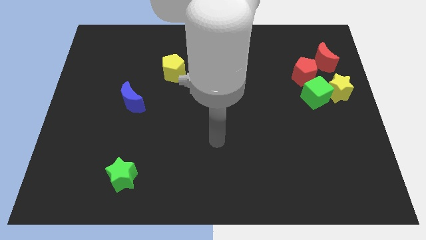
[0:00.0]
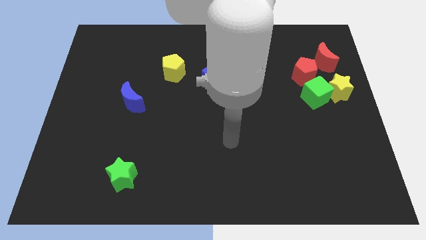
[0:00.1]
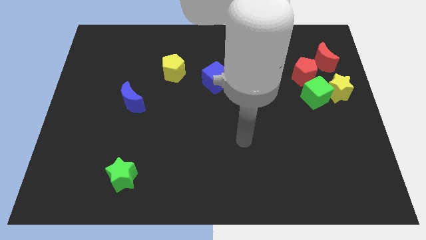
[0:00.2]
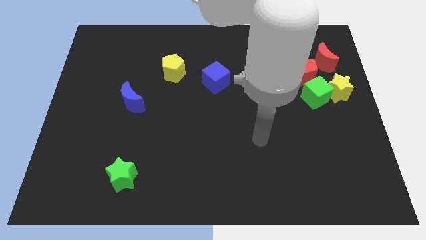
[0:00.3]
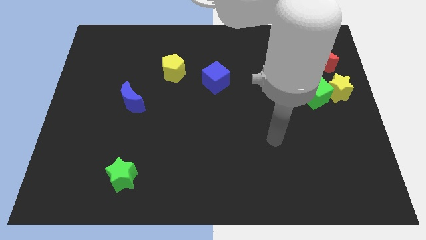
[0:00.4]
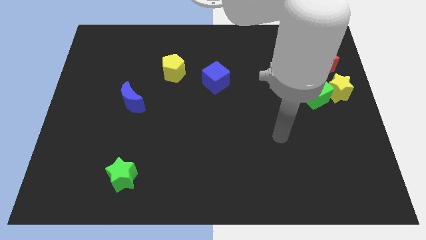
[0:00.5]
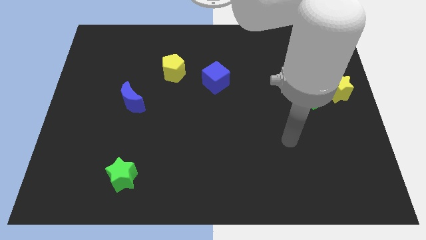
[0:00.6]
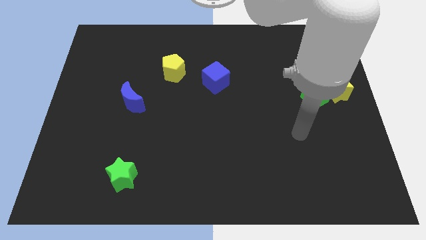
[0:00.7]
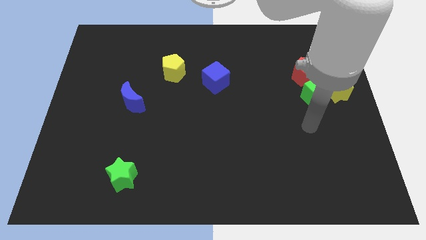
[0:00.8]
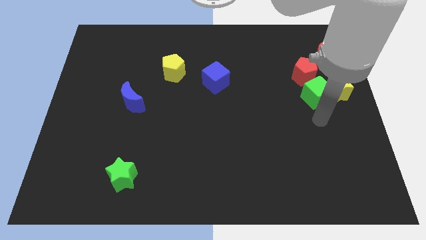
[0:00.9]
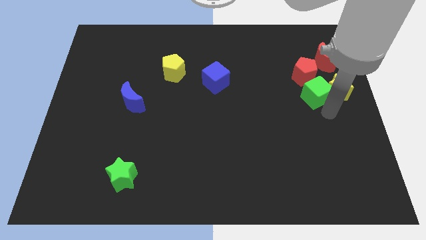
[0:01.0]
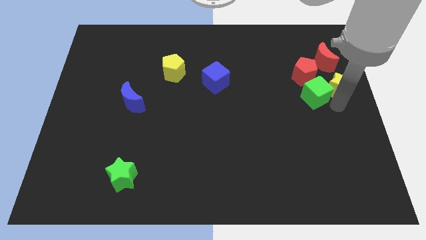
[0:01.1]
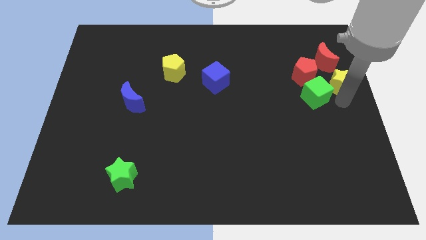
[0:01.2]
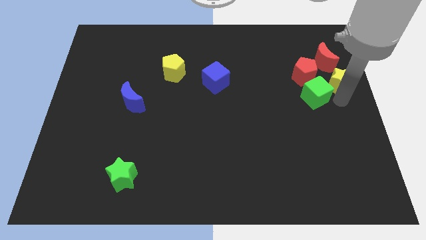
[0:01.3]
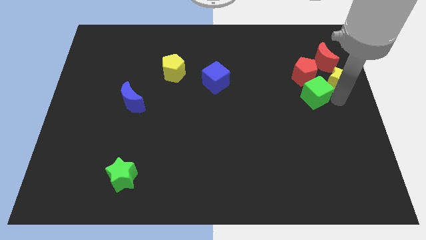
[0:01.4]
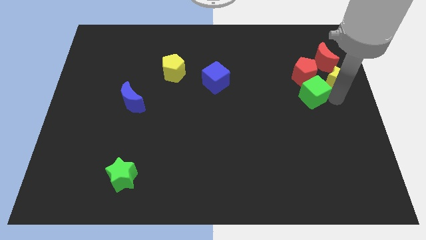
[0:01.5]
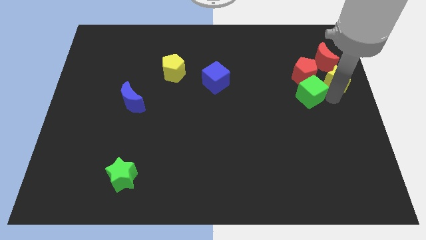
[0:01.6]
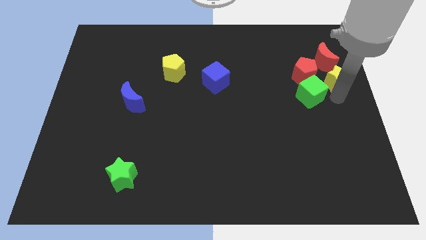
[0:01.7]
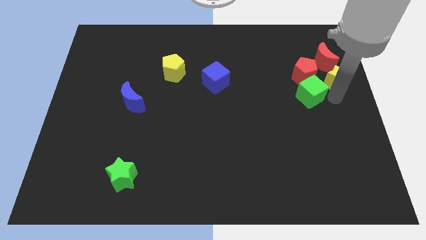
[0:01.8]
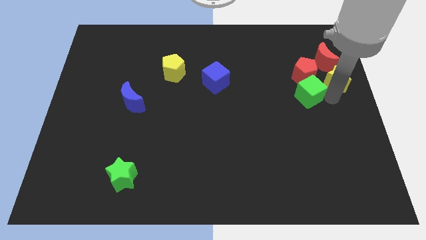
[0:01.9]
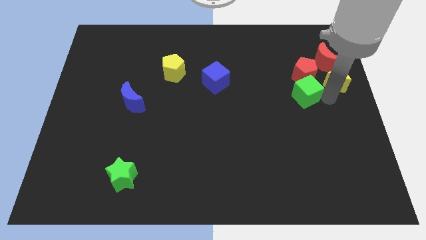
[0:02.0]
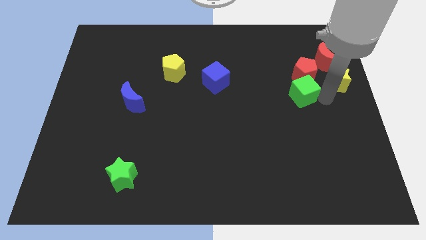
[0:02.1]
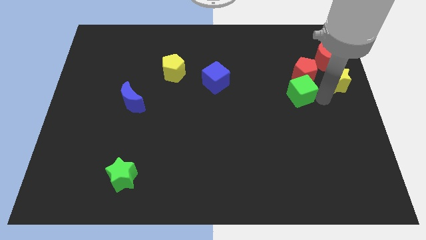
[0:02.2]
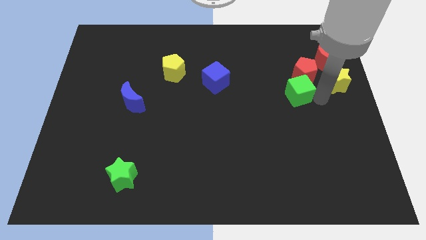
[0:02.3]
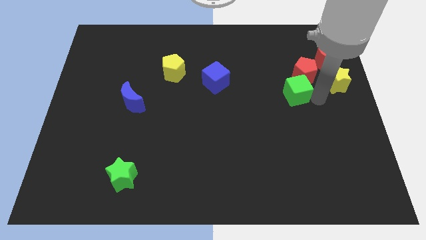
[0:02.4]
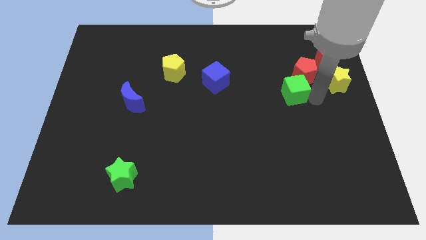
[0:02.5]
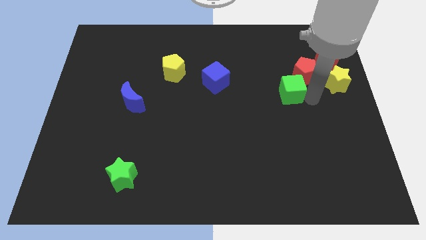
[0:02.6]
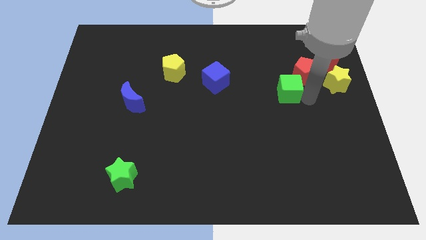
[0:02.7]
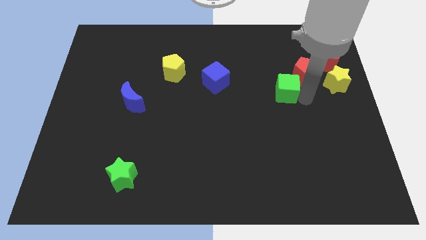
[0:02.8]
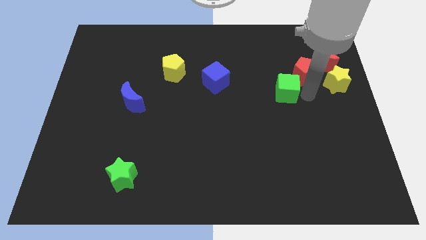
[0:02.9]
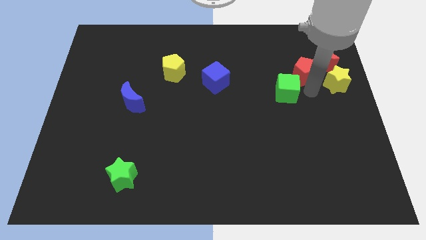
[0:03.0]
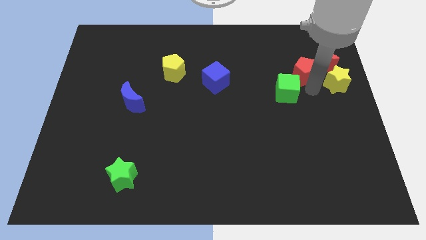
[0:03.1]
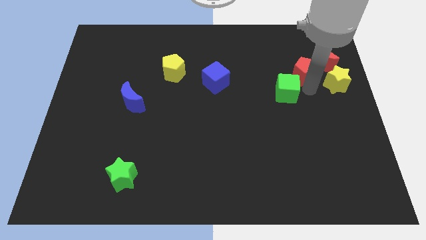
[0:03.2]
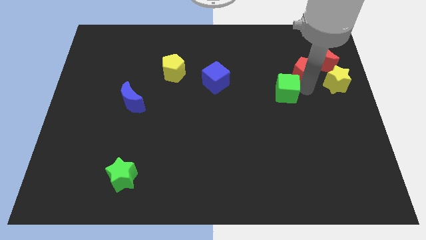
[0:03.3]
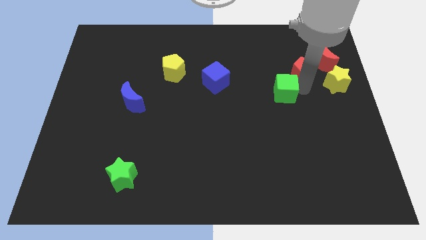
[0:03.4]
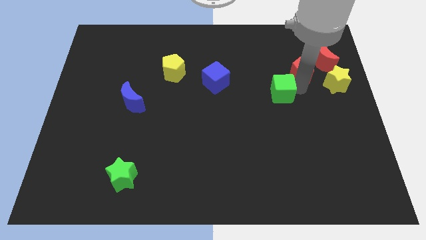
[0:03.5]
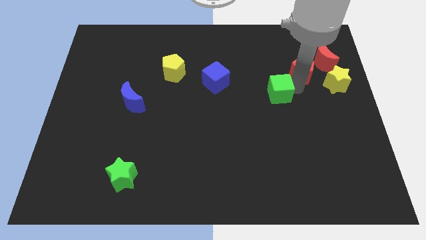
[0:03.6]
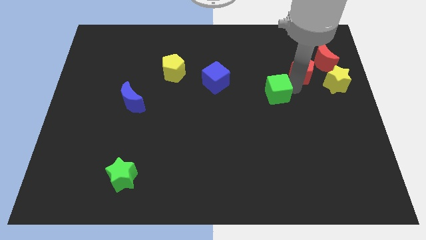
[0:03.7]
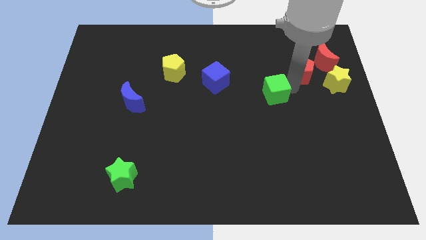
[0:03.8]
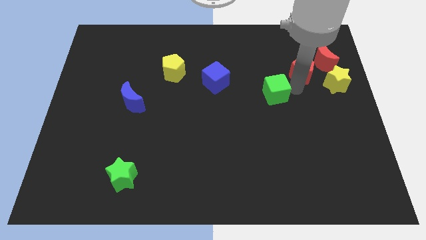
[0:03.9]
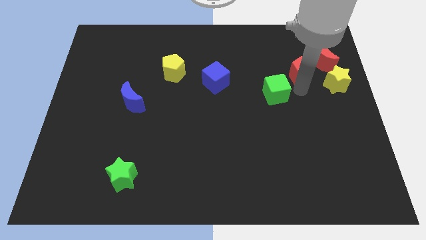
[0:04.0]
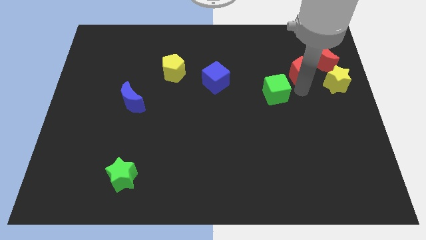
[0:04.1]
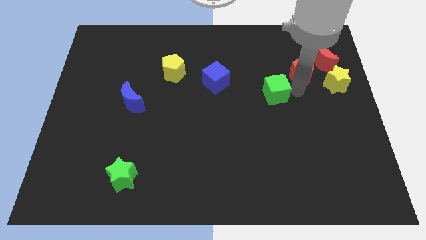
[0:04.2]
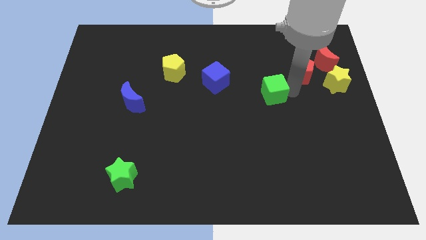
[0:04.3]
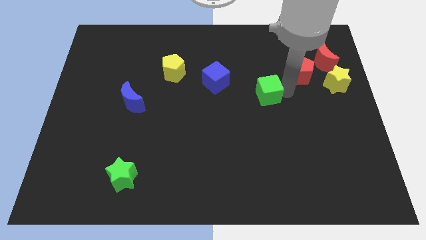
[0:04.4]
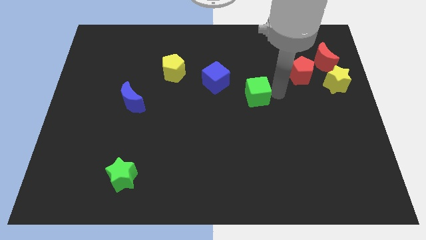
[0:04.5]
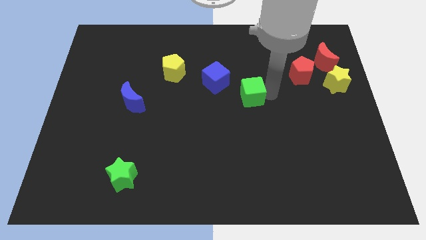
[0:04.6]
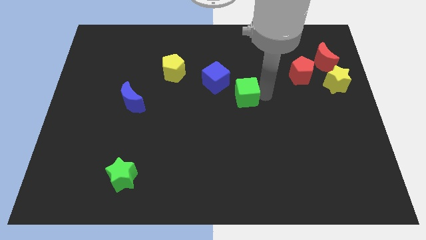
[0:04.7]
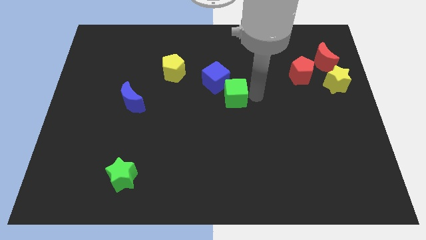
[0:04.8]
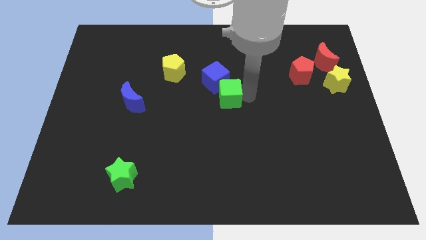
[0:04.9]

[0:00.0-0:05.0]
slide the green cube left

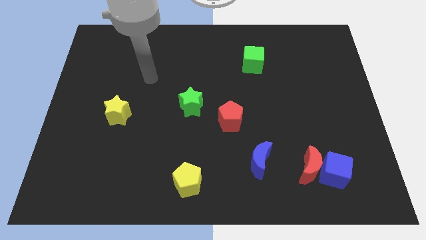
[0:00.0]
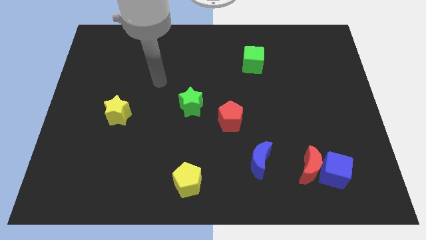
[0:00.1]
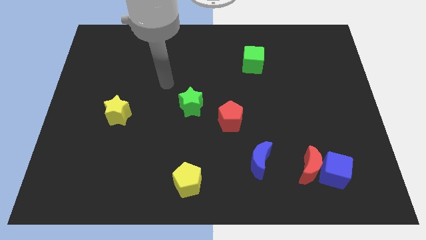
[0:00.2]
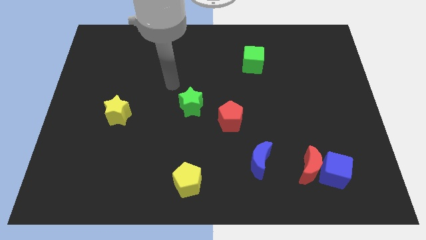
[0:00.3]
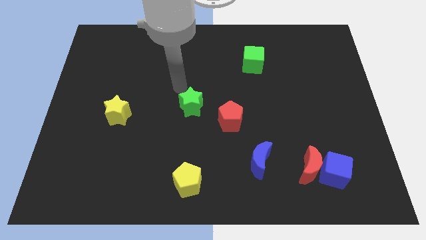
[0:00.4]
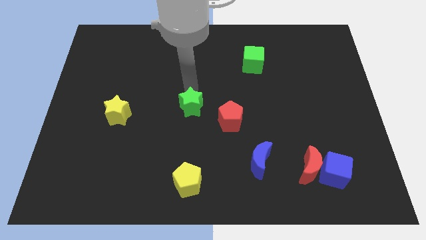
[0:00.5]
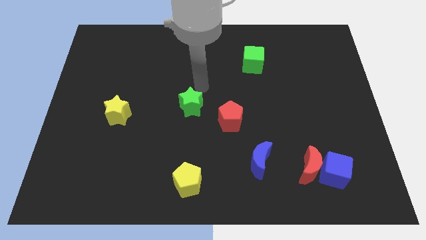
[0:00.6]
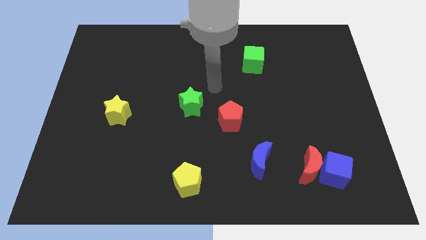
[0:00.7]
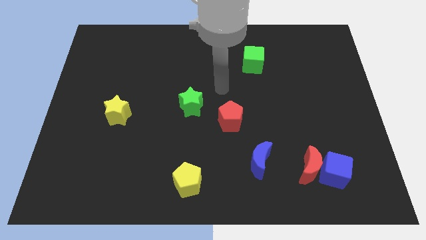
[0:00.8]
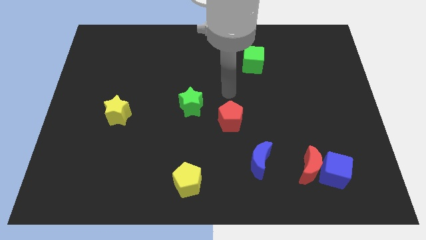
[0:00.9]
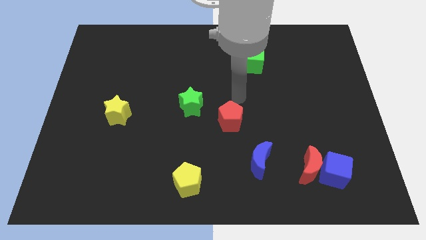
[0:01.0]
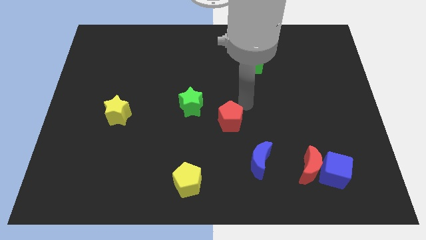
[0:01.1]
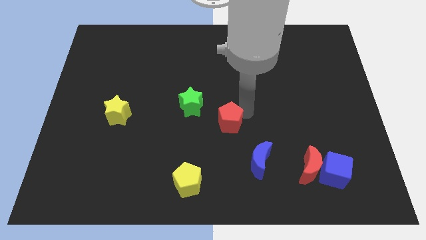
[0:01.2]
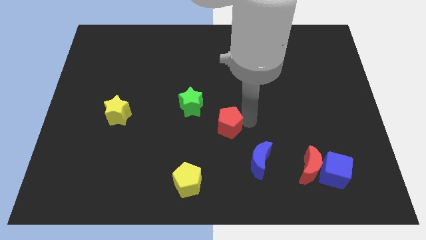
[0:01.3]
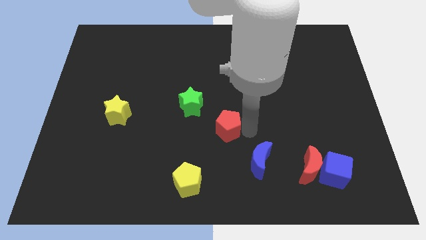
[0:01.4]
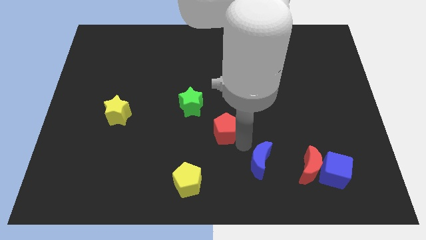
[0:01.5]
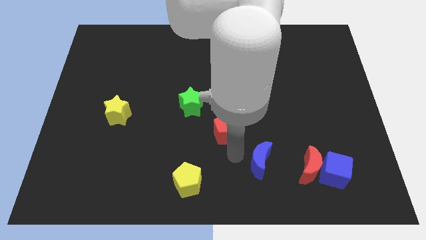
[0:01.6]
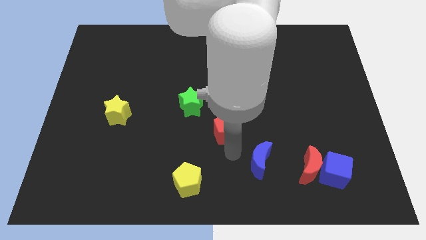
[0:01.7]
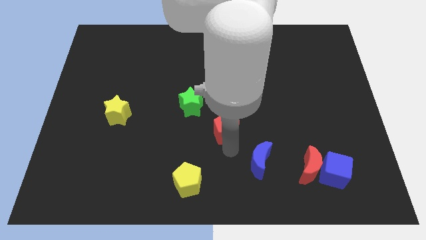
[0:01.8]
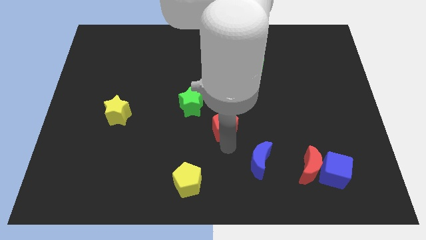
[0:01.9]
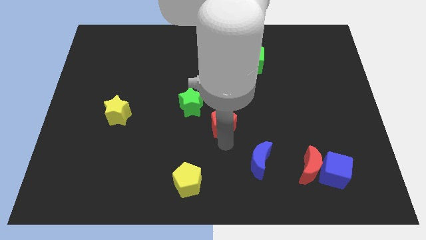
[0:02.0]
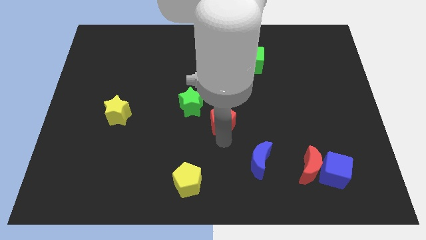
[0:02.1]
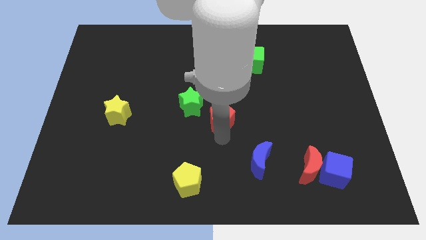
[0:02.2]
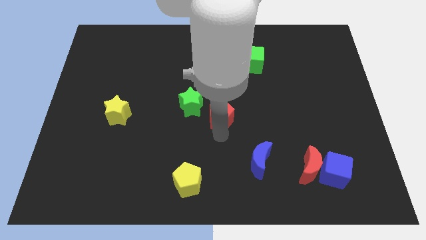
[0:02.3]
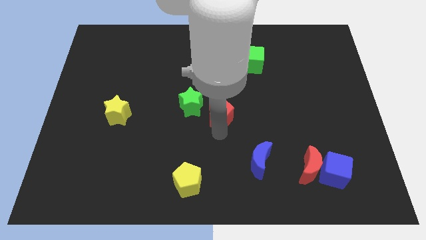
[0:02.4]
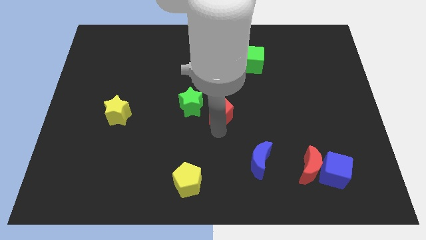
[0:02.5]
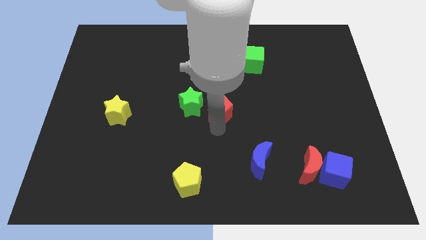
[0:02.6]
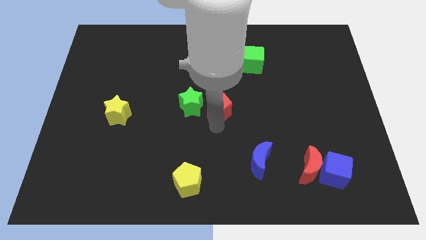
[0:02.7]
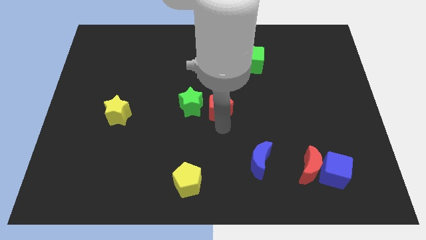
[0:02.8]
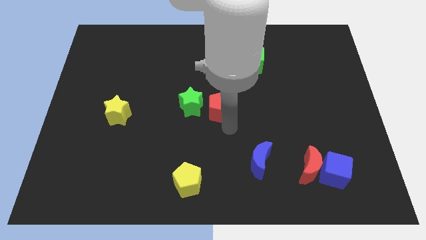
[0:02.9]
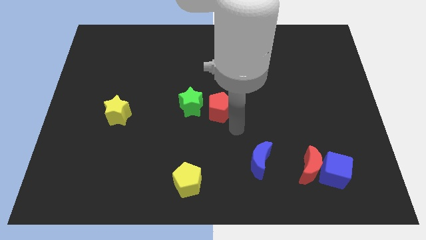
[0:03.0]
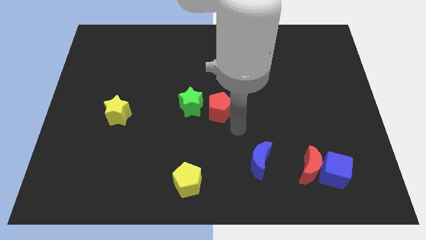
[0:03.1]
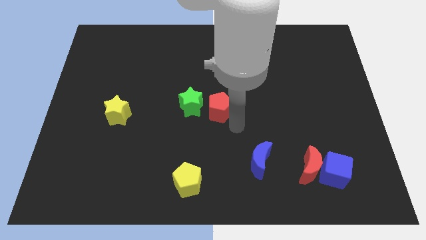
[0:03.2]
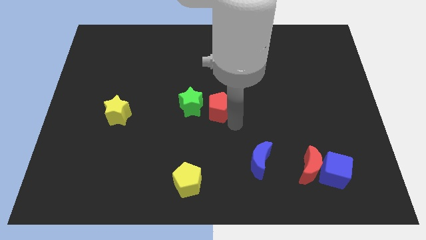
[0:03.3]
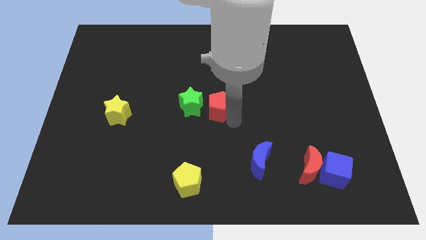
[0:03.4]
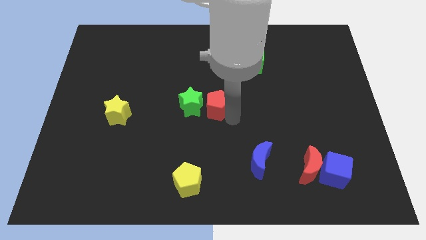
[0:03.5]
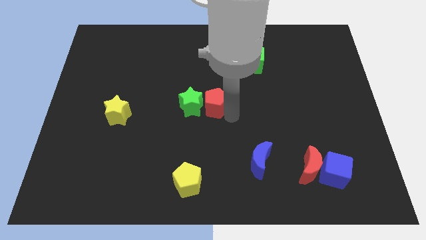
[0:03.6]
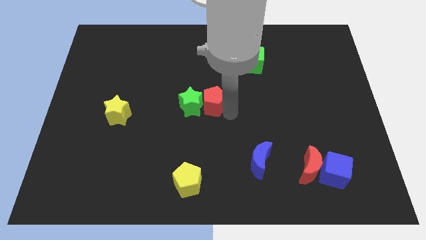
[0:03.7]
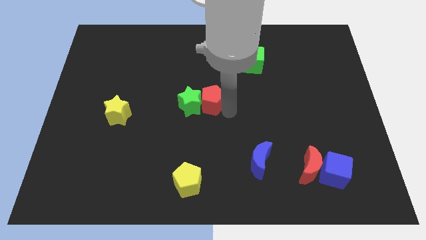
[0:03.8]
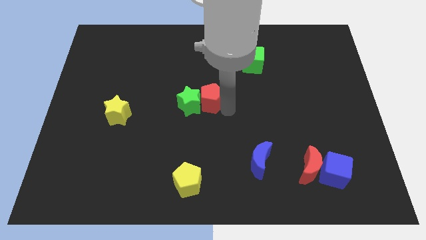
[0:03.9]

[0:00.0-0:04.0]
slightly move the red pentagon up and left diagonally
